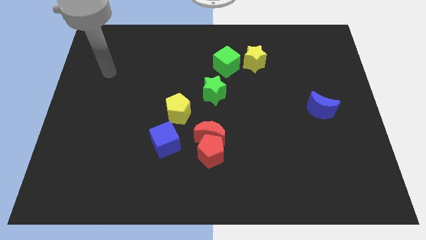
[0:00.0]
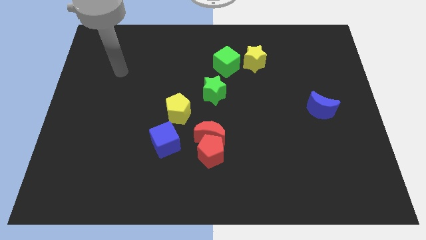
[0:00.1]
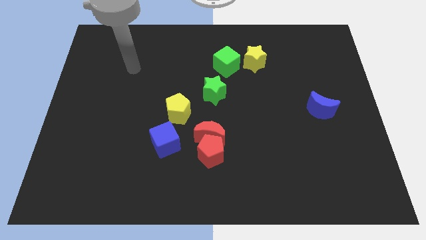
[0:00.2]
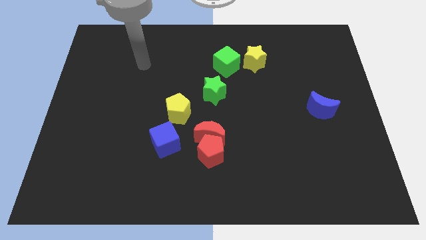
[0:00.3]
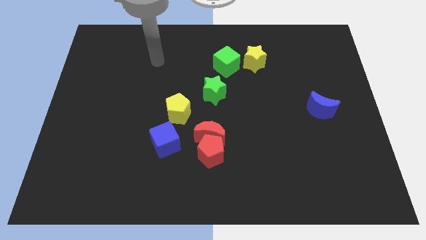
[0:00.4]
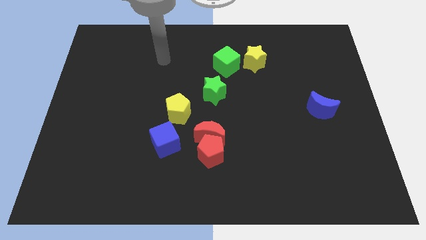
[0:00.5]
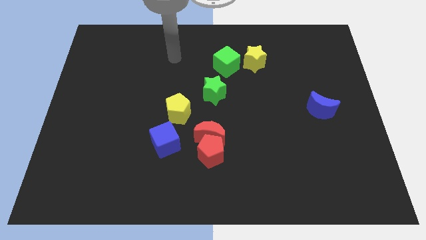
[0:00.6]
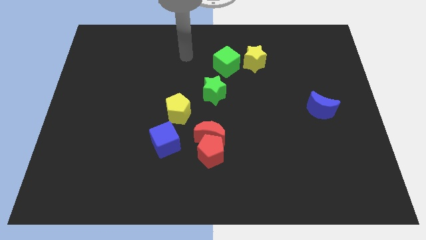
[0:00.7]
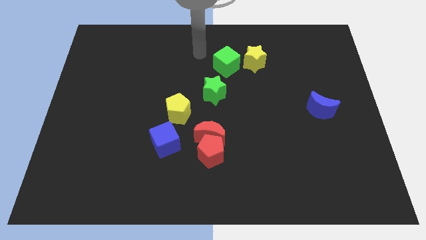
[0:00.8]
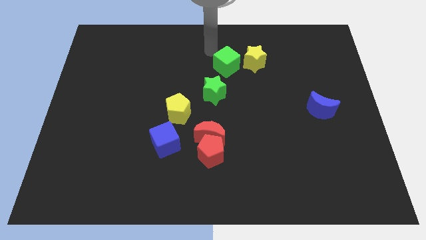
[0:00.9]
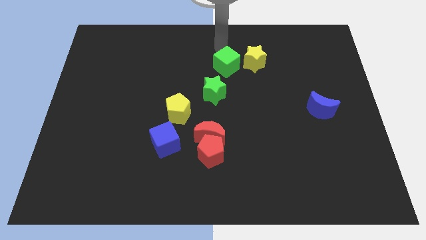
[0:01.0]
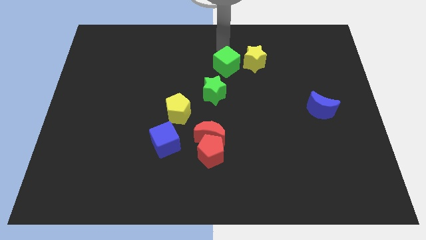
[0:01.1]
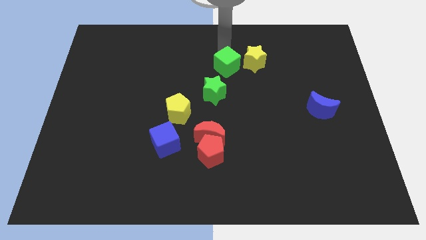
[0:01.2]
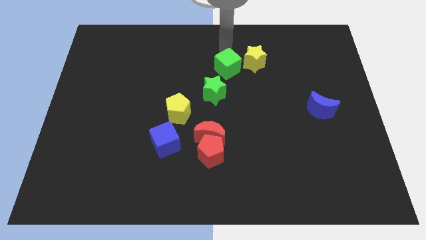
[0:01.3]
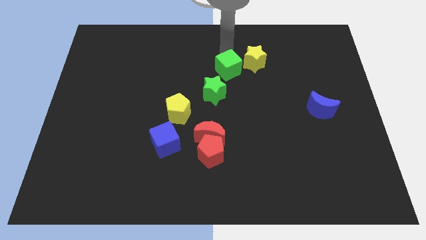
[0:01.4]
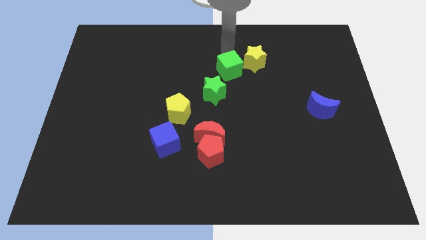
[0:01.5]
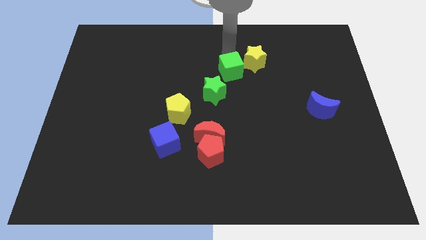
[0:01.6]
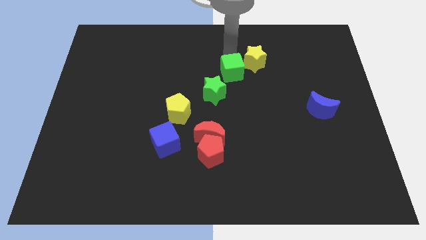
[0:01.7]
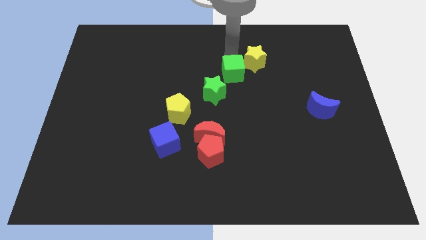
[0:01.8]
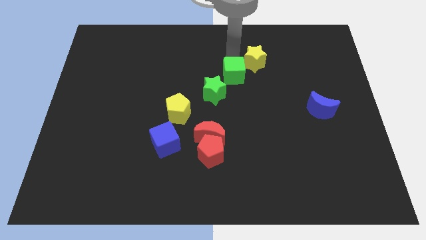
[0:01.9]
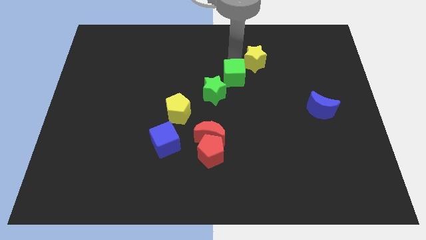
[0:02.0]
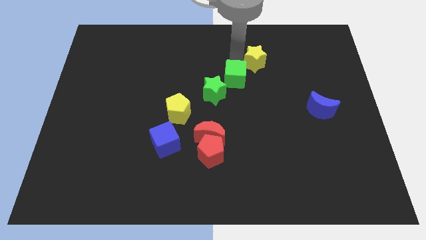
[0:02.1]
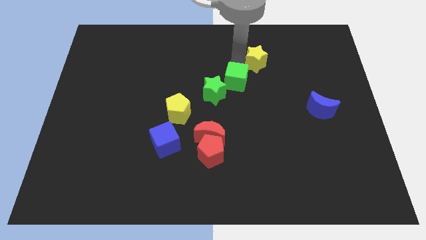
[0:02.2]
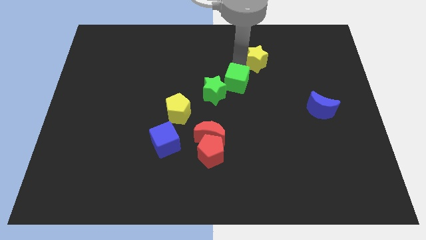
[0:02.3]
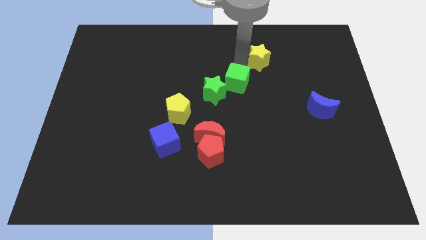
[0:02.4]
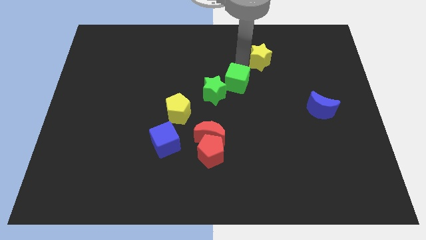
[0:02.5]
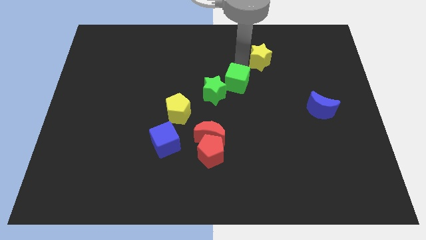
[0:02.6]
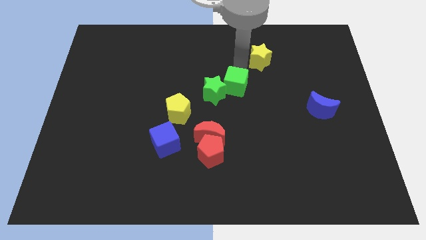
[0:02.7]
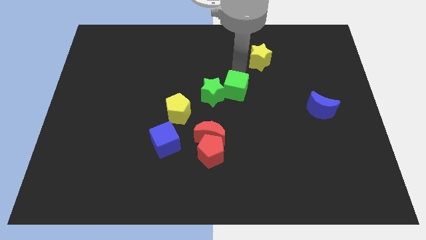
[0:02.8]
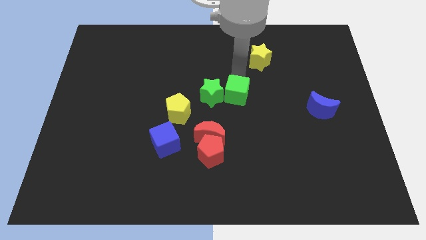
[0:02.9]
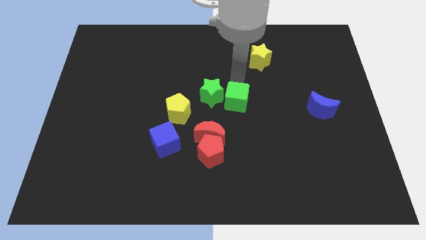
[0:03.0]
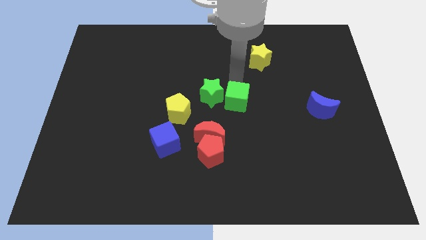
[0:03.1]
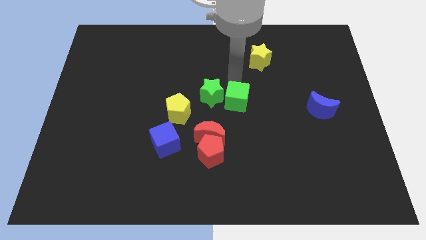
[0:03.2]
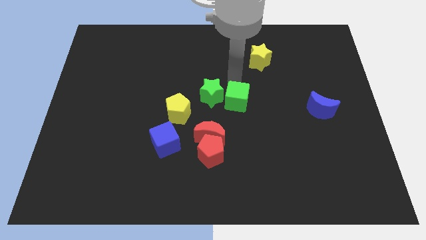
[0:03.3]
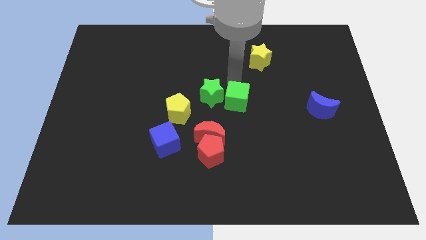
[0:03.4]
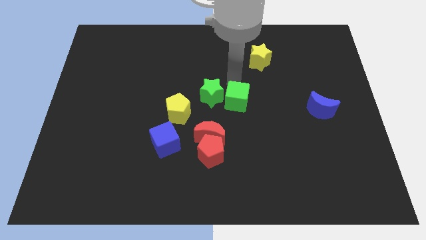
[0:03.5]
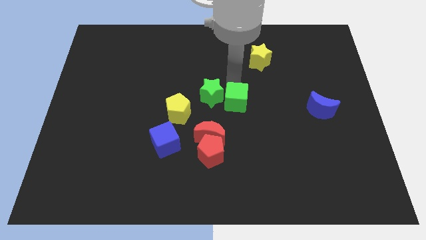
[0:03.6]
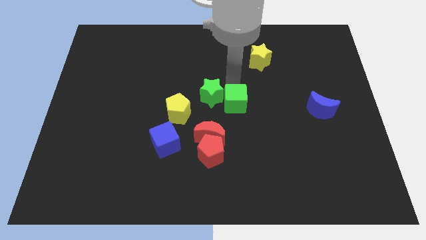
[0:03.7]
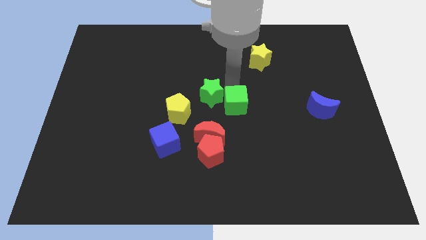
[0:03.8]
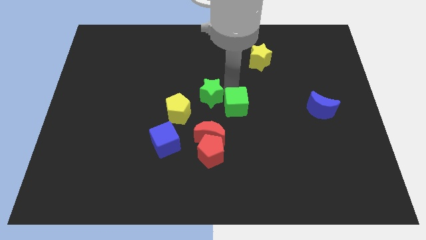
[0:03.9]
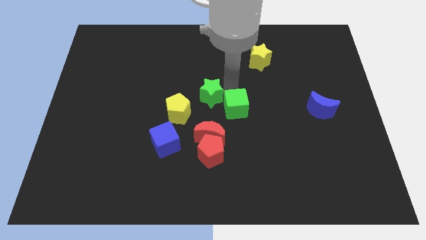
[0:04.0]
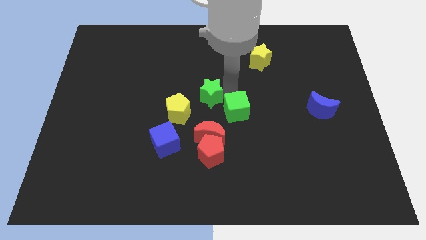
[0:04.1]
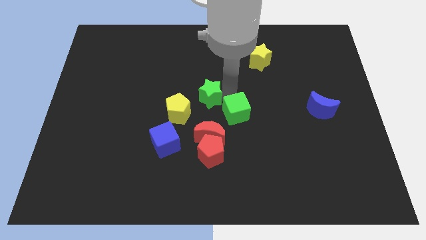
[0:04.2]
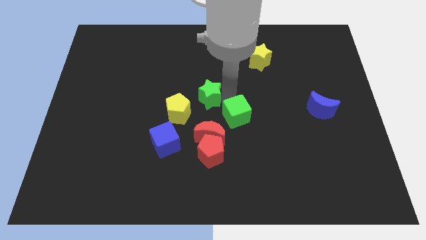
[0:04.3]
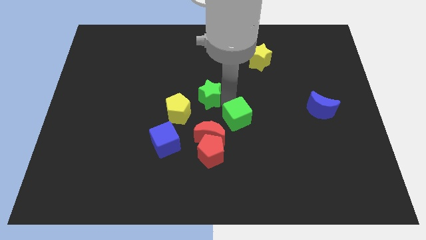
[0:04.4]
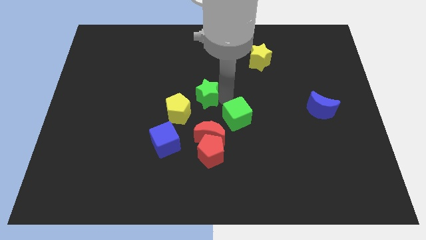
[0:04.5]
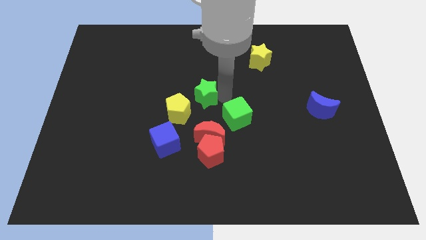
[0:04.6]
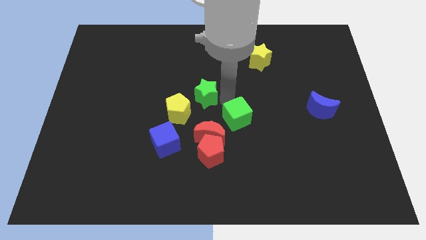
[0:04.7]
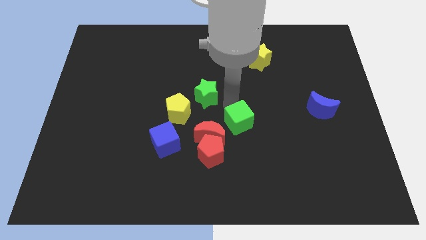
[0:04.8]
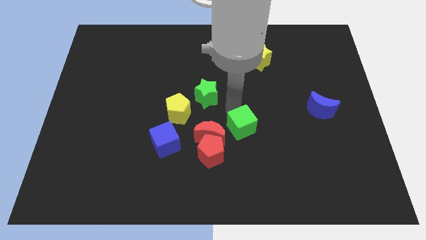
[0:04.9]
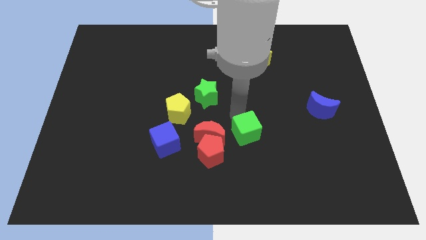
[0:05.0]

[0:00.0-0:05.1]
push the green cube downwards

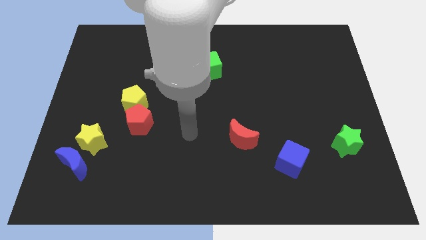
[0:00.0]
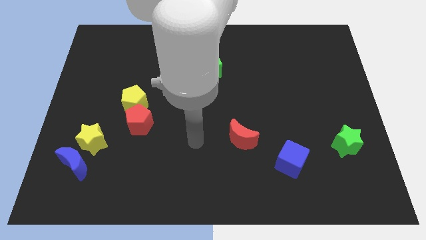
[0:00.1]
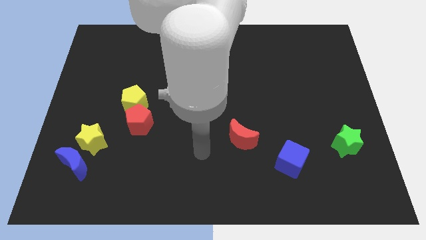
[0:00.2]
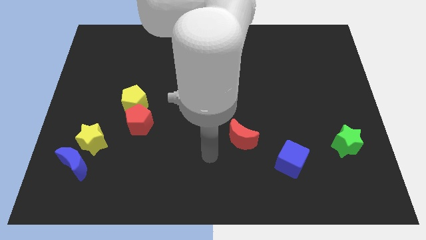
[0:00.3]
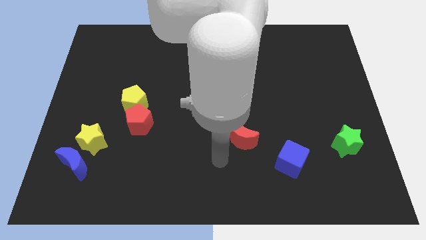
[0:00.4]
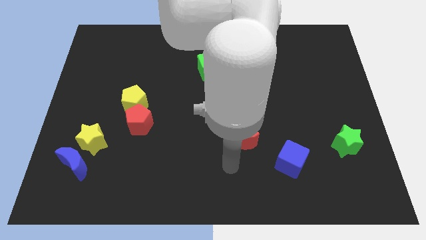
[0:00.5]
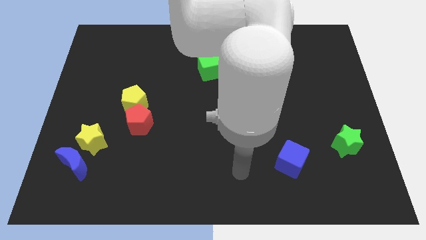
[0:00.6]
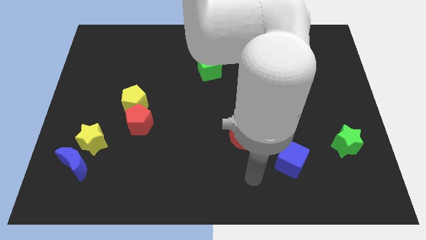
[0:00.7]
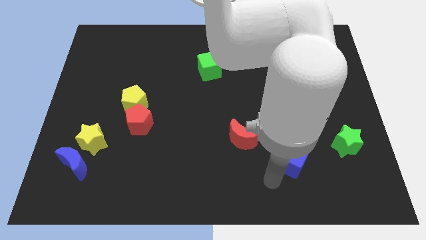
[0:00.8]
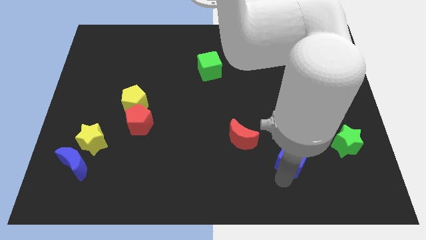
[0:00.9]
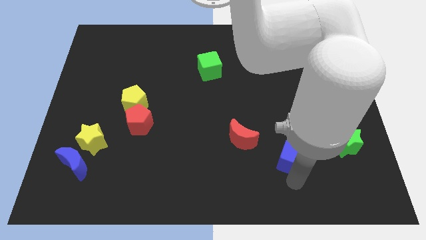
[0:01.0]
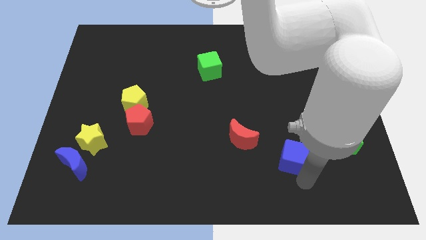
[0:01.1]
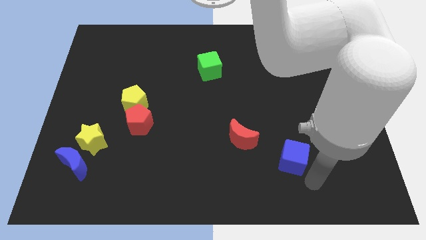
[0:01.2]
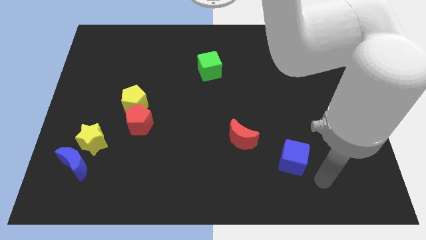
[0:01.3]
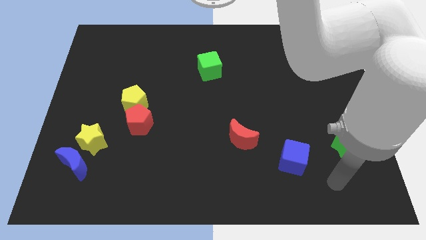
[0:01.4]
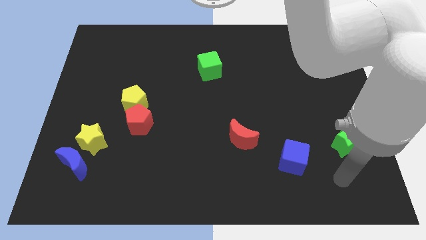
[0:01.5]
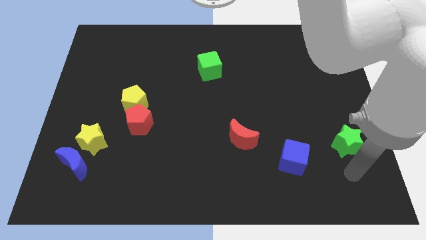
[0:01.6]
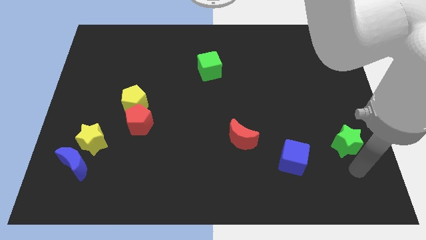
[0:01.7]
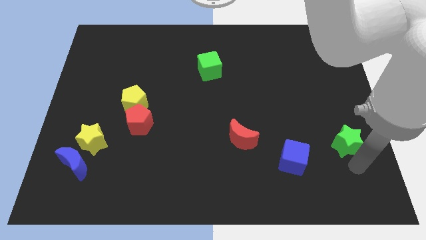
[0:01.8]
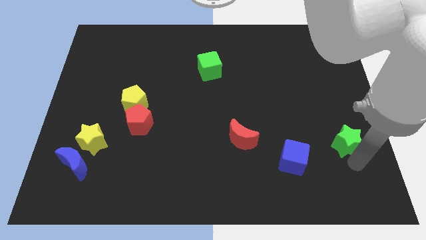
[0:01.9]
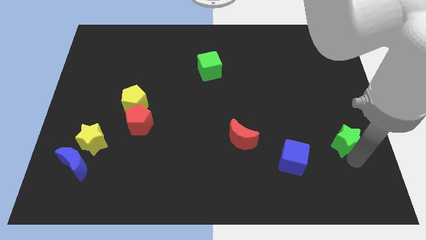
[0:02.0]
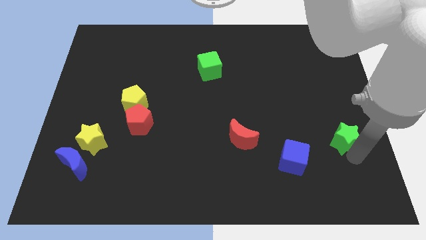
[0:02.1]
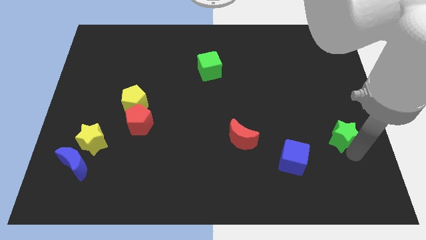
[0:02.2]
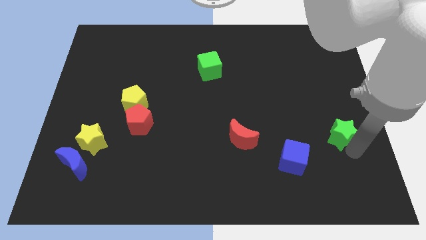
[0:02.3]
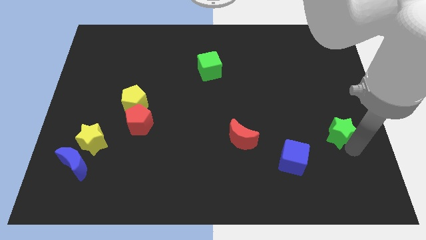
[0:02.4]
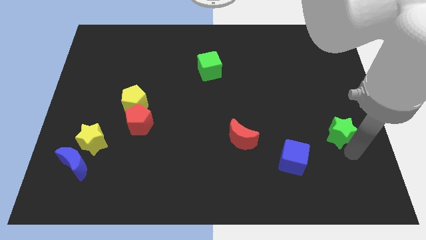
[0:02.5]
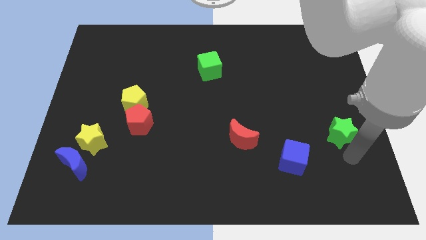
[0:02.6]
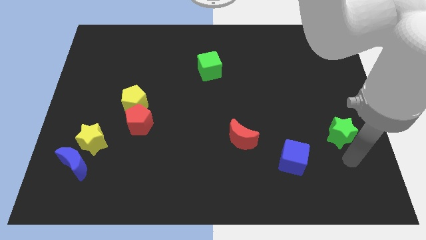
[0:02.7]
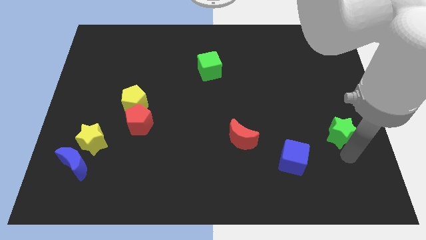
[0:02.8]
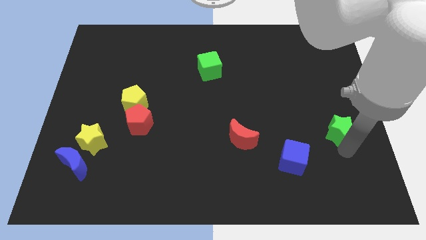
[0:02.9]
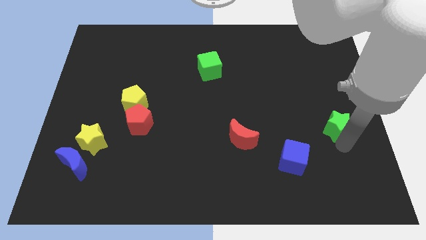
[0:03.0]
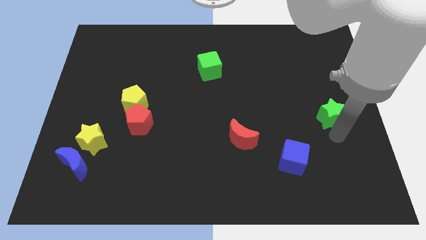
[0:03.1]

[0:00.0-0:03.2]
push the green star a little upwards
